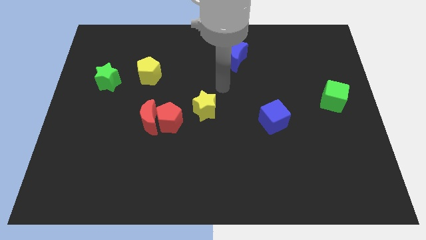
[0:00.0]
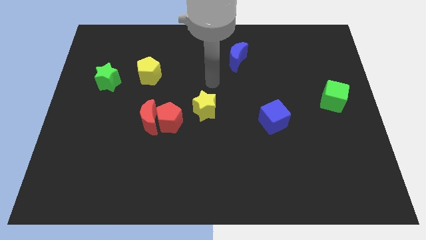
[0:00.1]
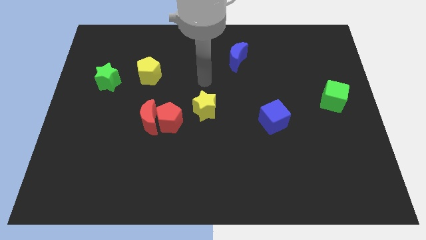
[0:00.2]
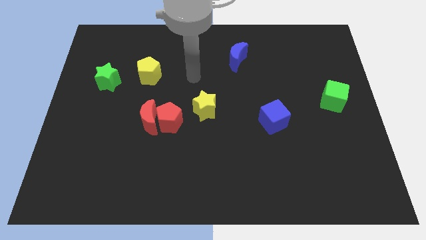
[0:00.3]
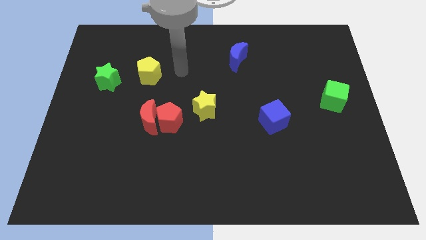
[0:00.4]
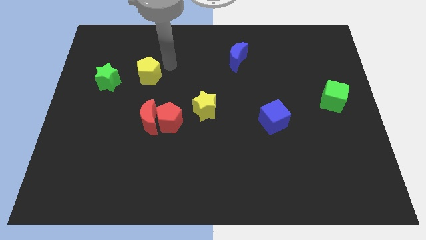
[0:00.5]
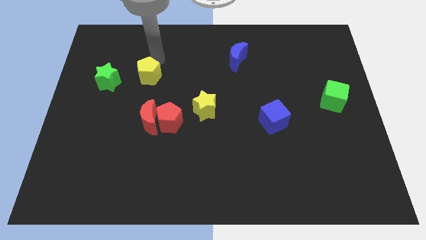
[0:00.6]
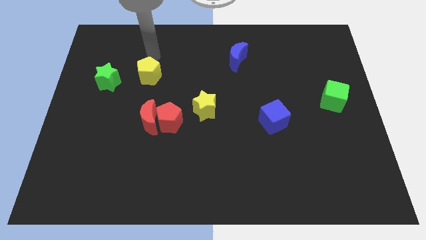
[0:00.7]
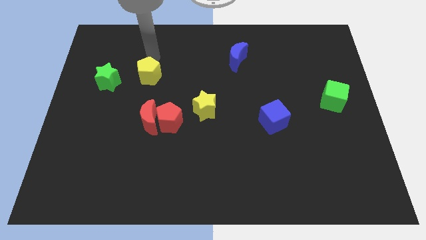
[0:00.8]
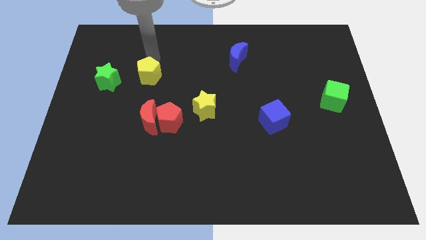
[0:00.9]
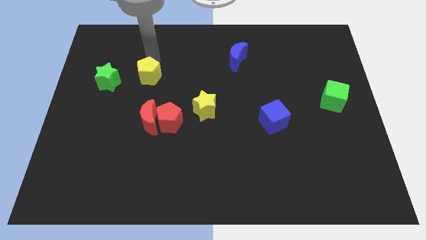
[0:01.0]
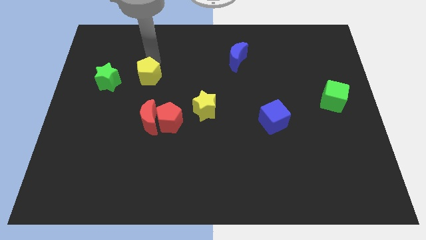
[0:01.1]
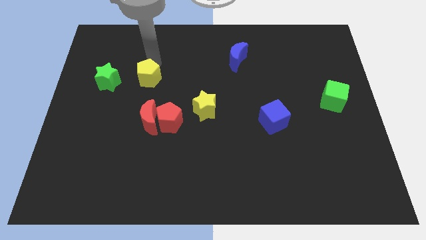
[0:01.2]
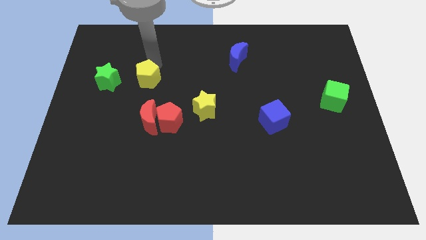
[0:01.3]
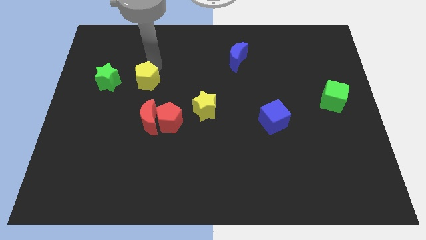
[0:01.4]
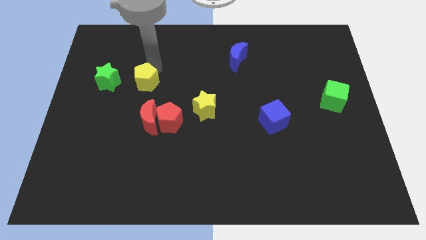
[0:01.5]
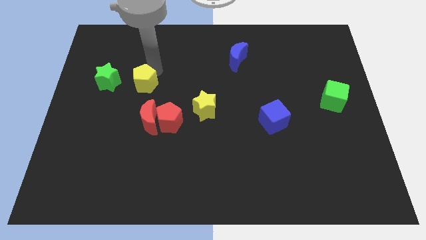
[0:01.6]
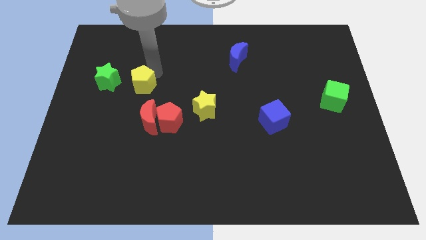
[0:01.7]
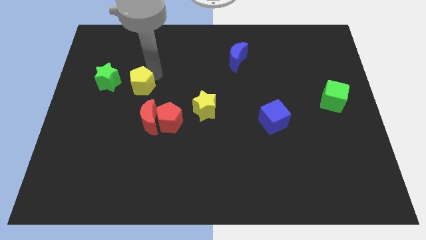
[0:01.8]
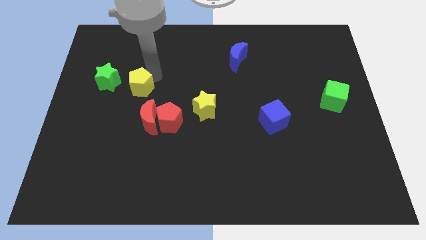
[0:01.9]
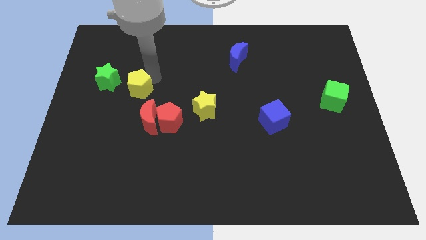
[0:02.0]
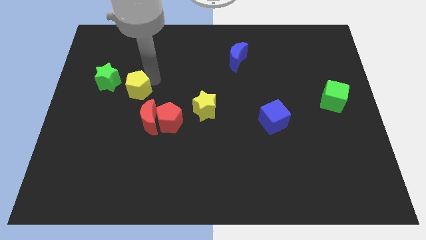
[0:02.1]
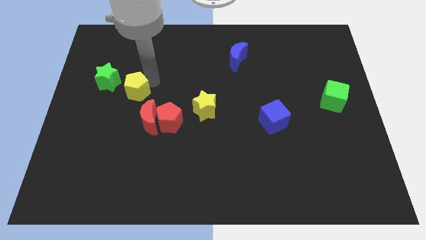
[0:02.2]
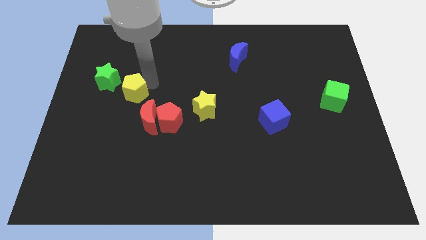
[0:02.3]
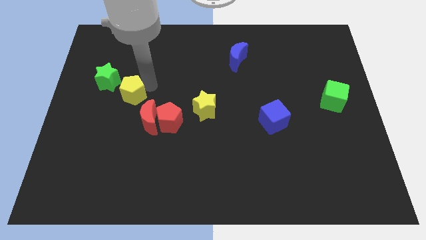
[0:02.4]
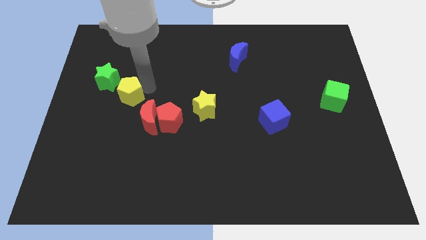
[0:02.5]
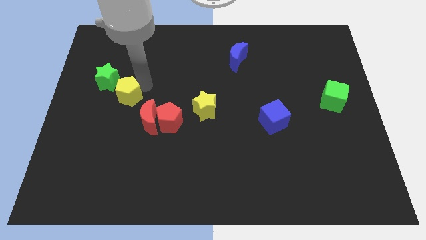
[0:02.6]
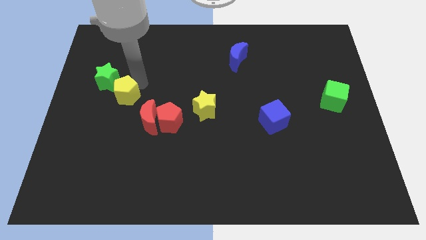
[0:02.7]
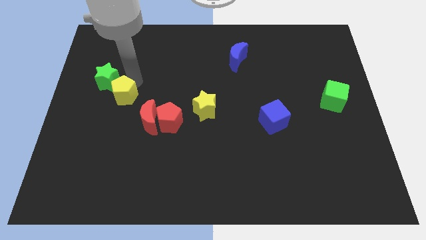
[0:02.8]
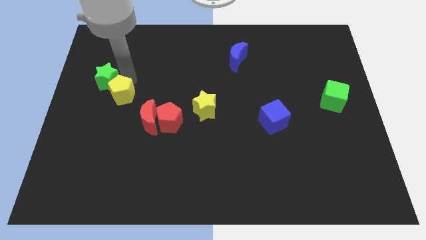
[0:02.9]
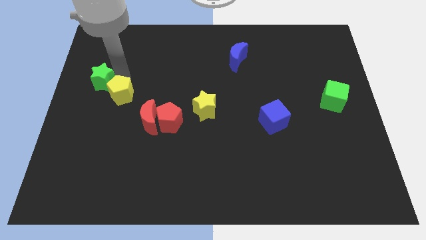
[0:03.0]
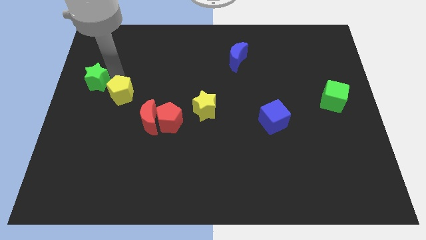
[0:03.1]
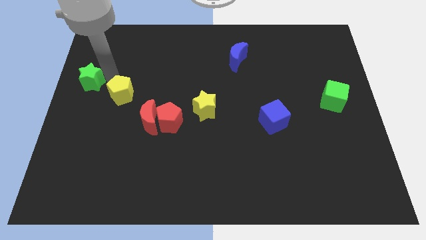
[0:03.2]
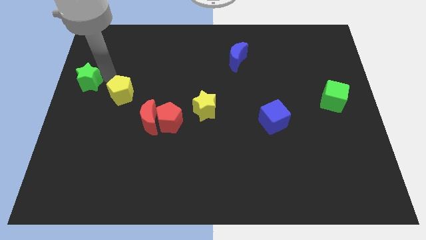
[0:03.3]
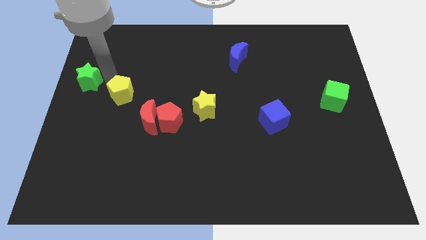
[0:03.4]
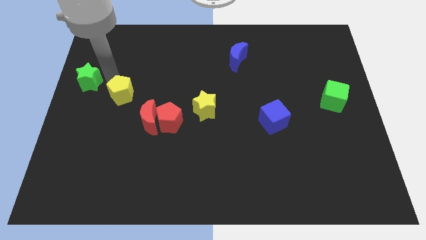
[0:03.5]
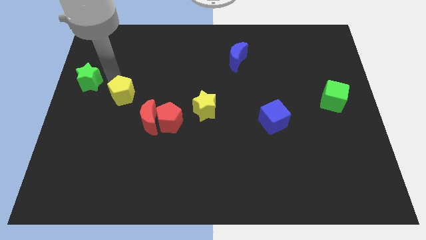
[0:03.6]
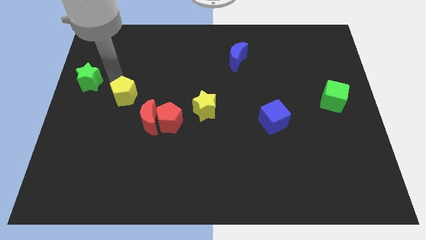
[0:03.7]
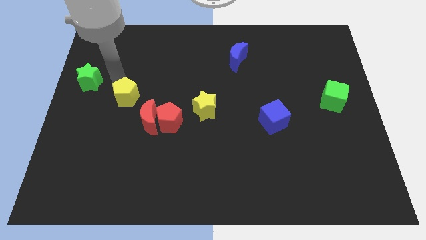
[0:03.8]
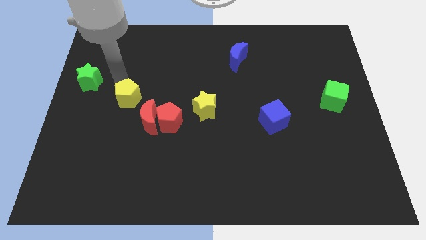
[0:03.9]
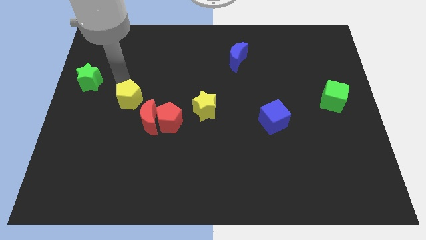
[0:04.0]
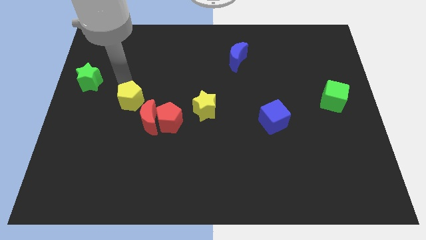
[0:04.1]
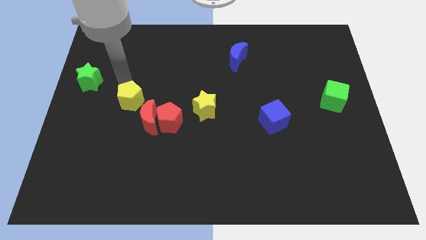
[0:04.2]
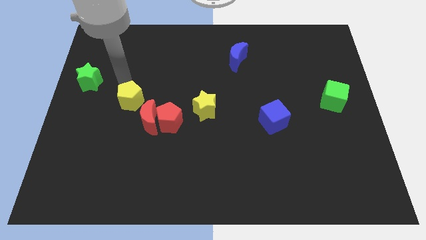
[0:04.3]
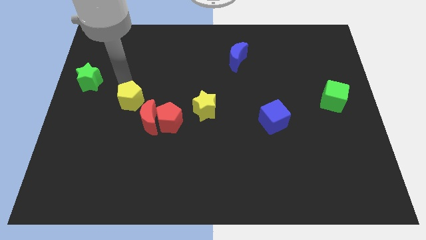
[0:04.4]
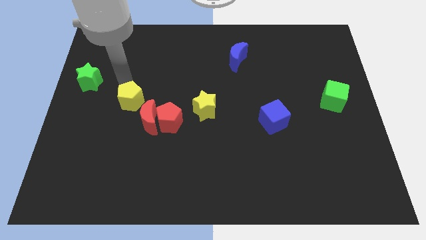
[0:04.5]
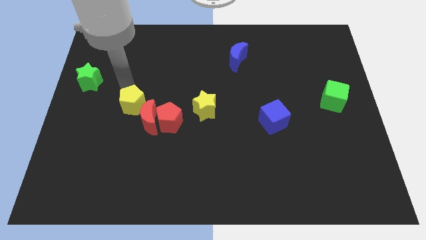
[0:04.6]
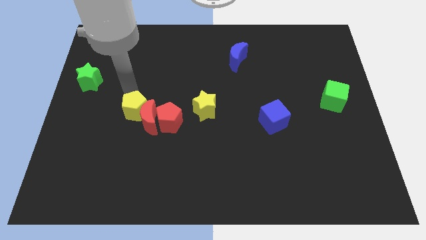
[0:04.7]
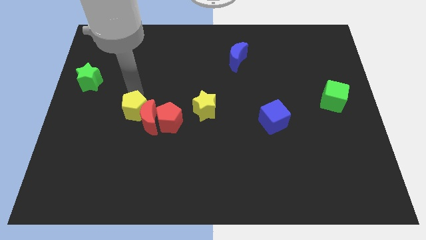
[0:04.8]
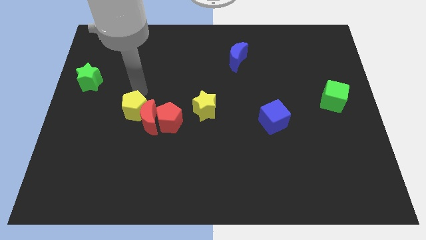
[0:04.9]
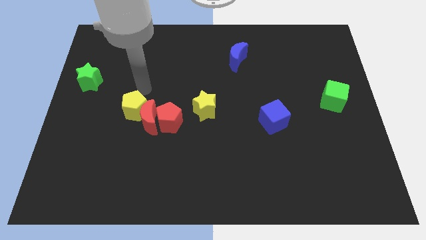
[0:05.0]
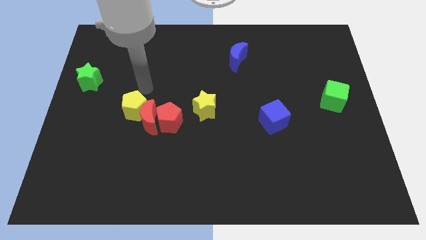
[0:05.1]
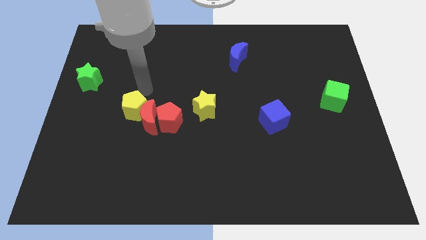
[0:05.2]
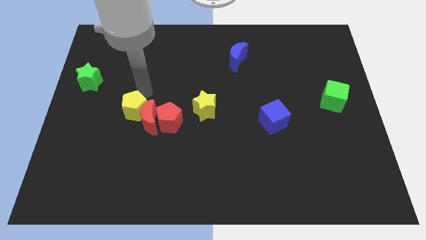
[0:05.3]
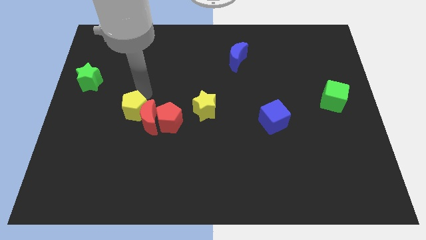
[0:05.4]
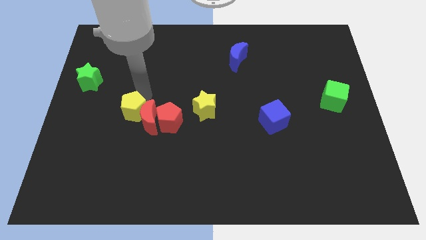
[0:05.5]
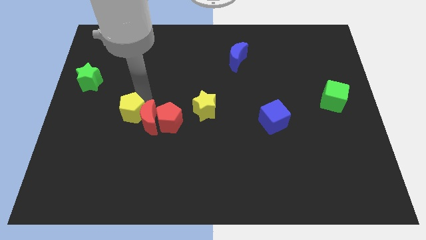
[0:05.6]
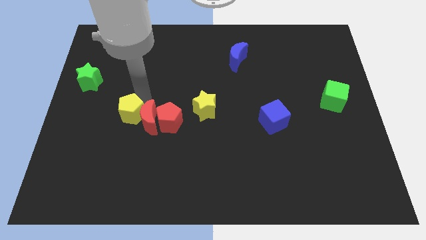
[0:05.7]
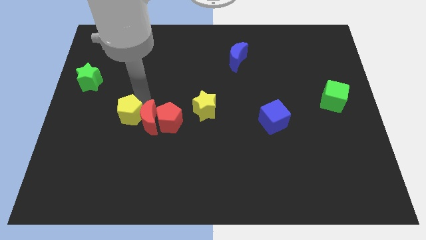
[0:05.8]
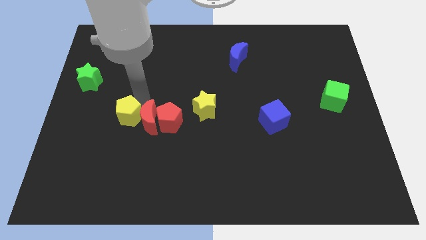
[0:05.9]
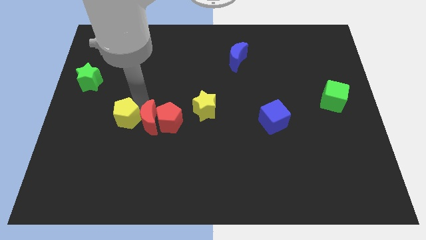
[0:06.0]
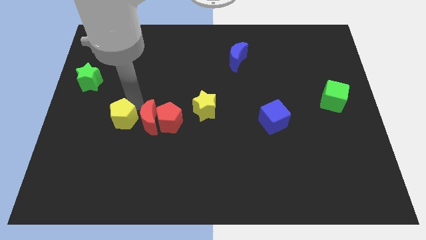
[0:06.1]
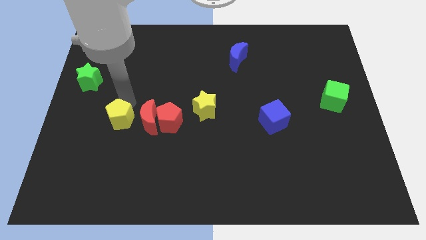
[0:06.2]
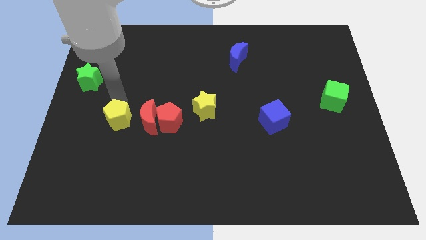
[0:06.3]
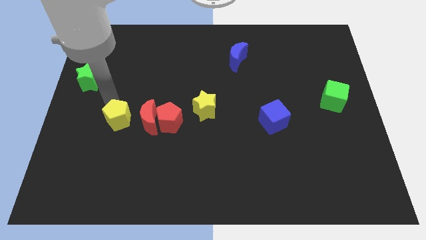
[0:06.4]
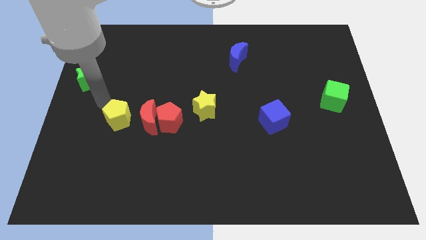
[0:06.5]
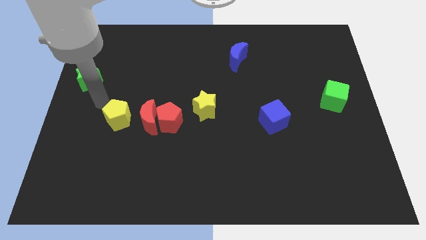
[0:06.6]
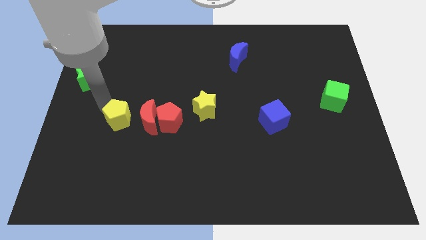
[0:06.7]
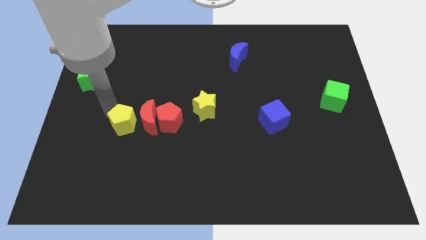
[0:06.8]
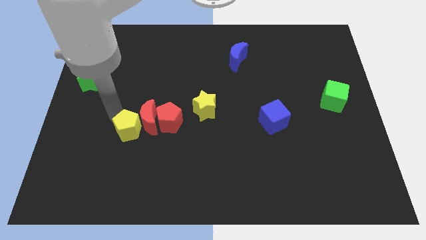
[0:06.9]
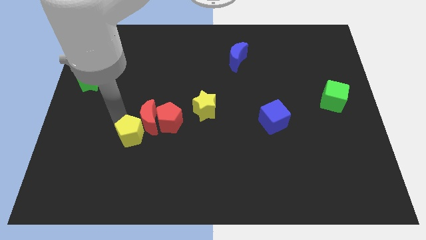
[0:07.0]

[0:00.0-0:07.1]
move the yellow pentagon to the bottom left of the red pentagon
